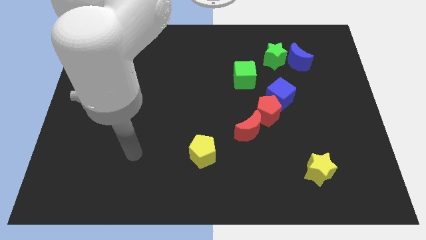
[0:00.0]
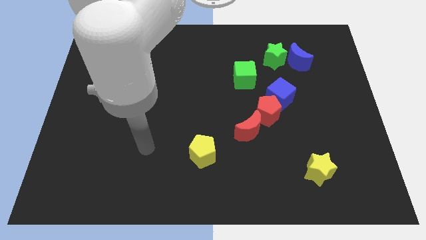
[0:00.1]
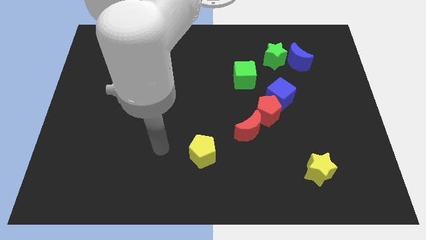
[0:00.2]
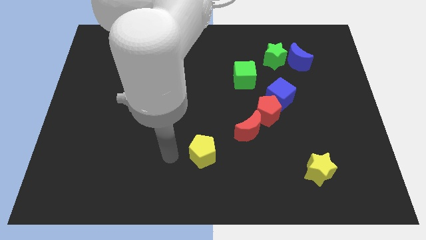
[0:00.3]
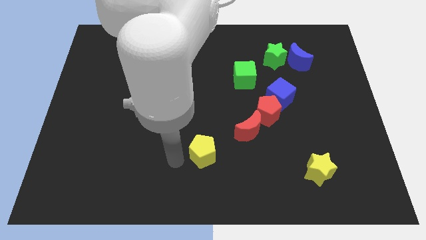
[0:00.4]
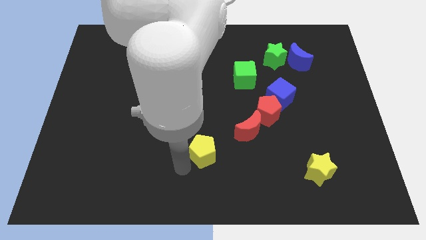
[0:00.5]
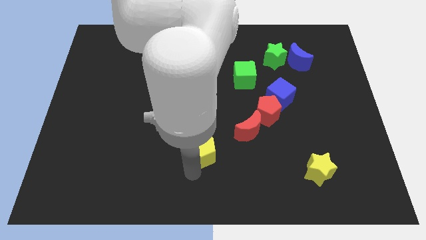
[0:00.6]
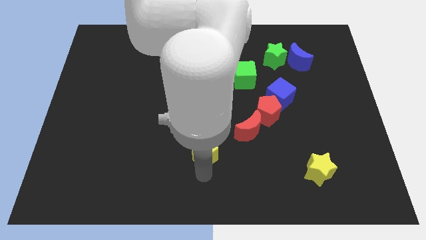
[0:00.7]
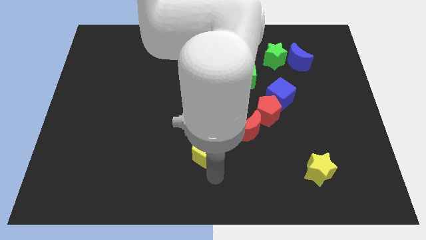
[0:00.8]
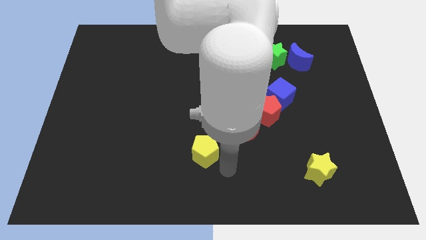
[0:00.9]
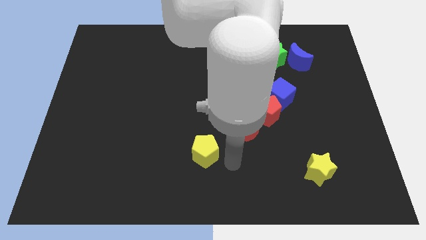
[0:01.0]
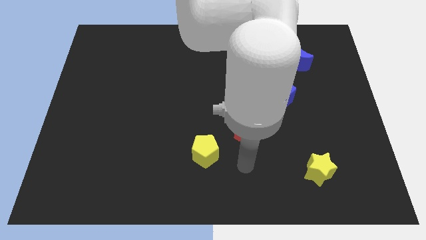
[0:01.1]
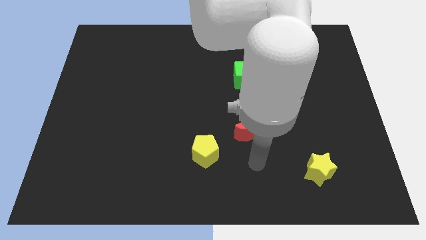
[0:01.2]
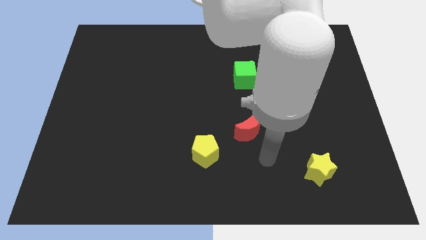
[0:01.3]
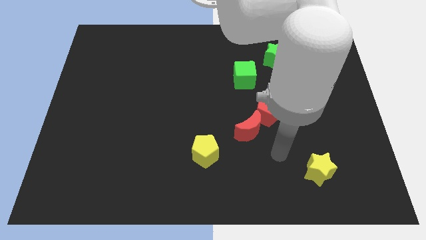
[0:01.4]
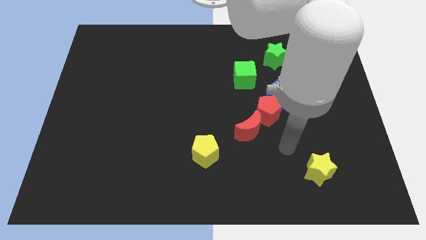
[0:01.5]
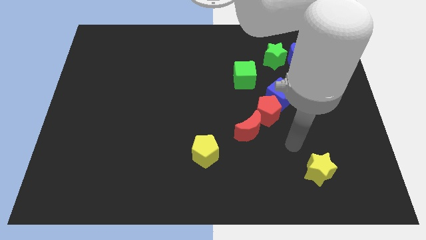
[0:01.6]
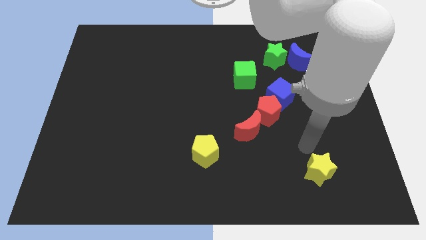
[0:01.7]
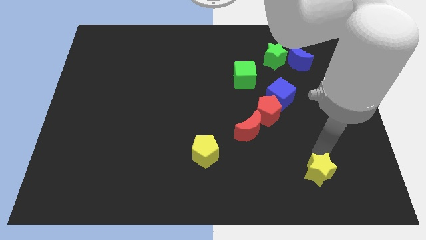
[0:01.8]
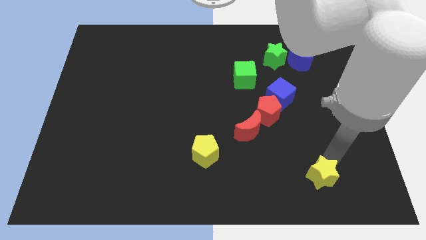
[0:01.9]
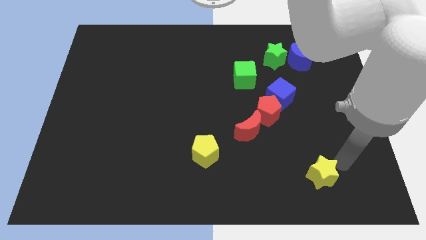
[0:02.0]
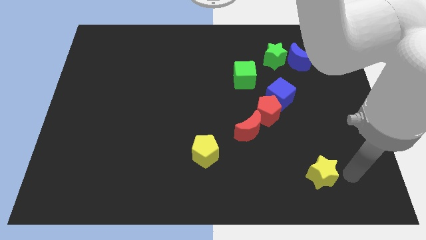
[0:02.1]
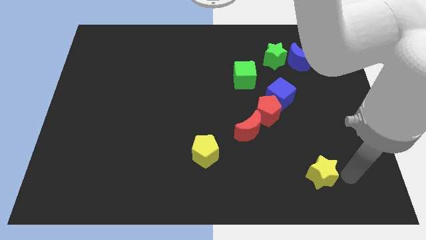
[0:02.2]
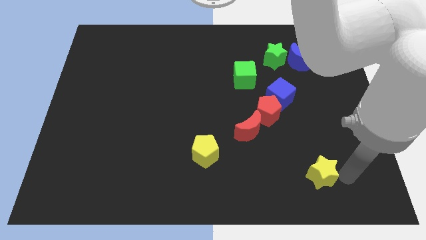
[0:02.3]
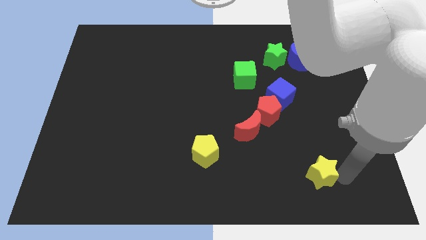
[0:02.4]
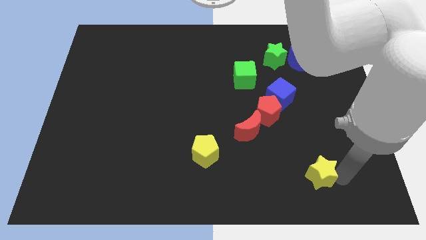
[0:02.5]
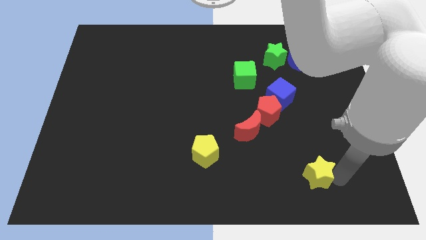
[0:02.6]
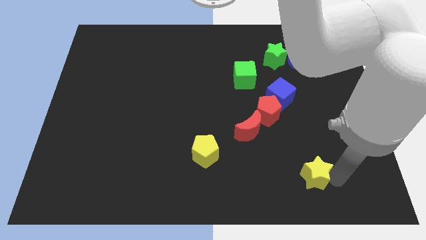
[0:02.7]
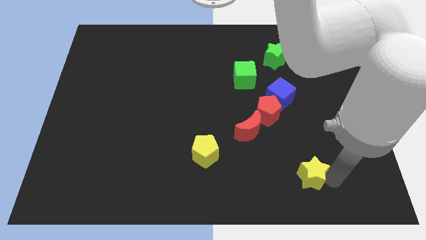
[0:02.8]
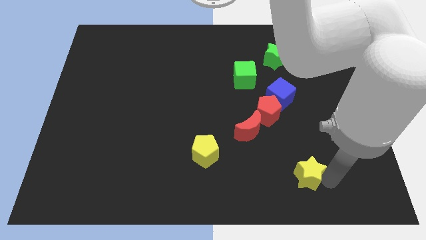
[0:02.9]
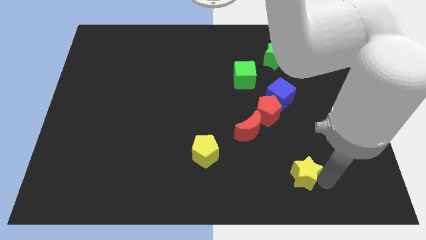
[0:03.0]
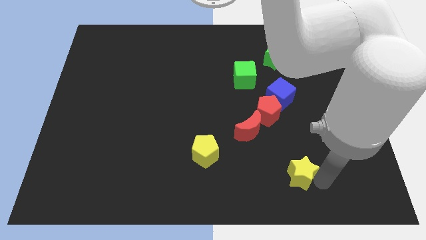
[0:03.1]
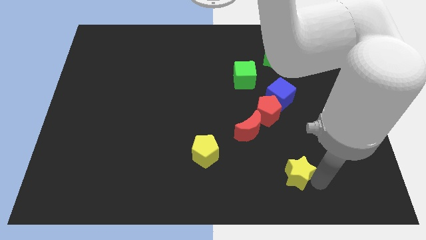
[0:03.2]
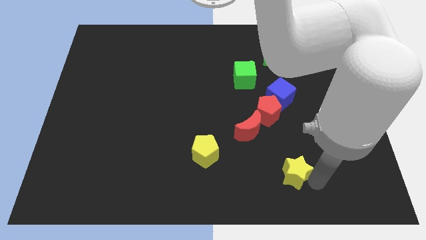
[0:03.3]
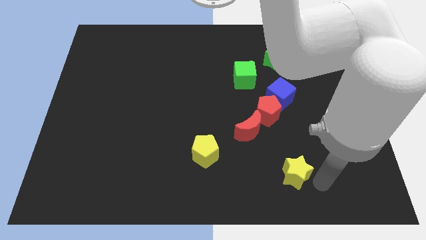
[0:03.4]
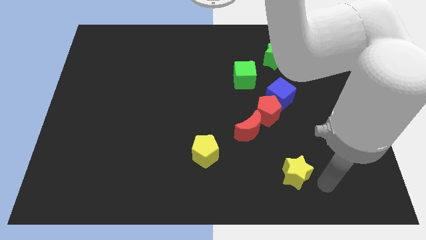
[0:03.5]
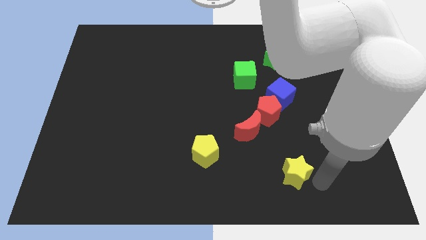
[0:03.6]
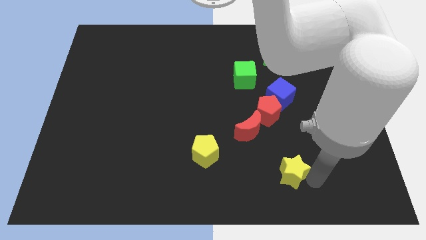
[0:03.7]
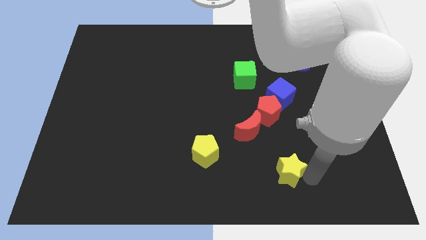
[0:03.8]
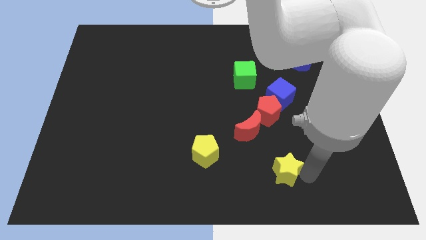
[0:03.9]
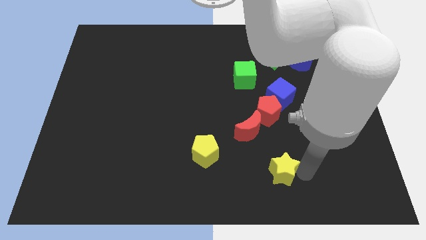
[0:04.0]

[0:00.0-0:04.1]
slide the yellow star a bit to the left

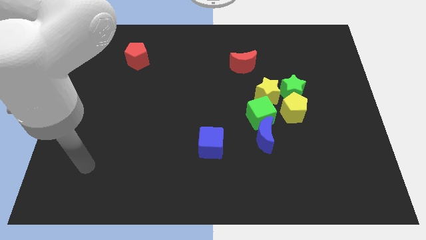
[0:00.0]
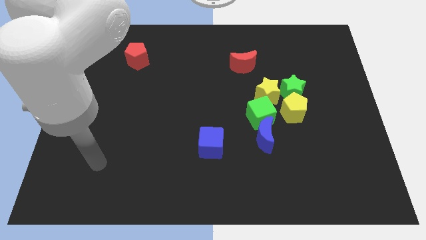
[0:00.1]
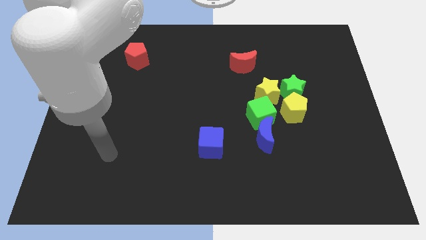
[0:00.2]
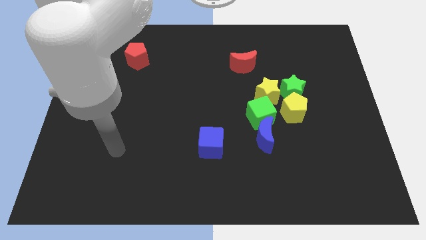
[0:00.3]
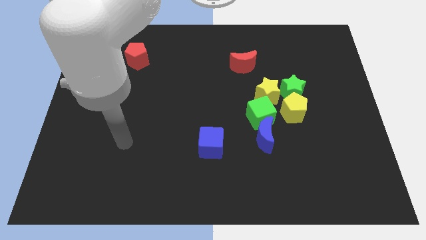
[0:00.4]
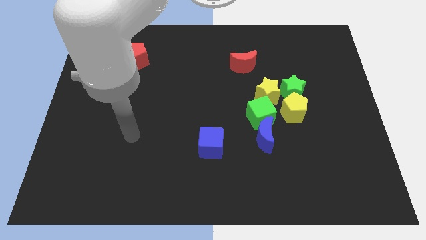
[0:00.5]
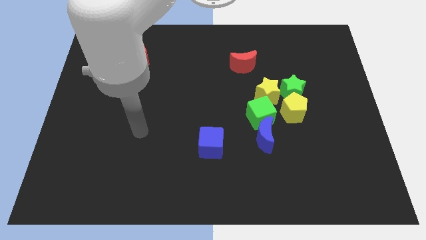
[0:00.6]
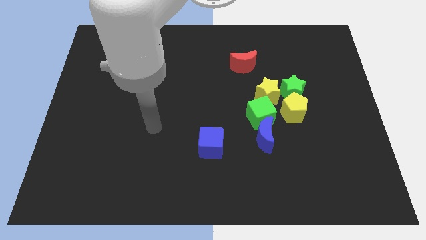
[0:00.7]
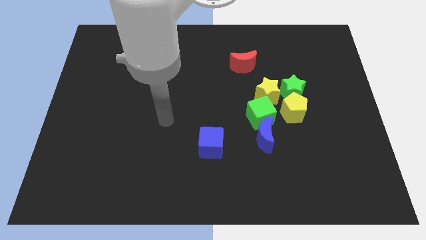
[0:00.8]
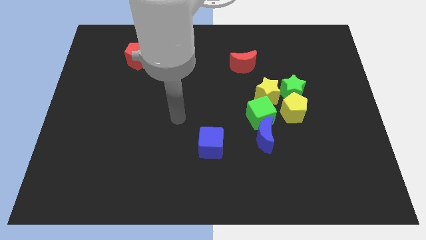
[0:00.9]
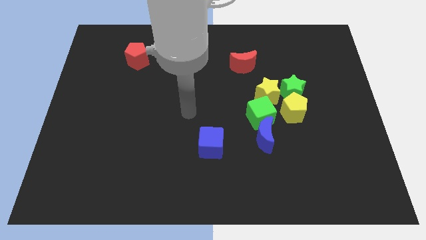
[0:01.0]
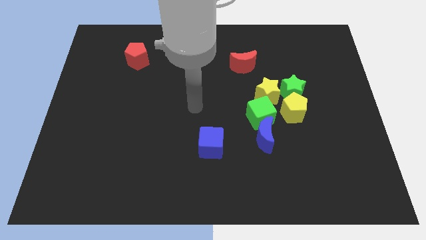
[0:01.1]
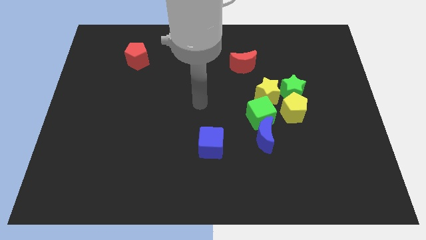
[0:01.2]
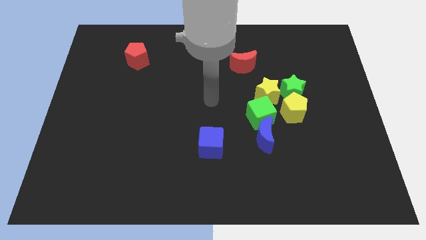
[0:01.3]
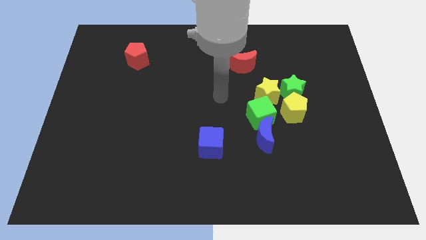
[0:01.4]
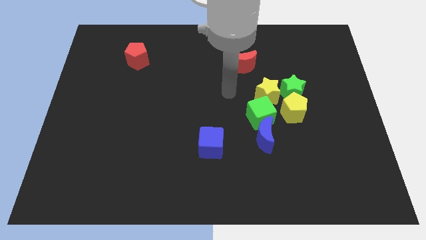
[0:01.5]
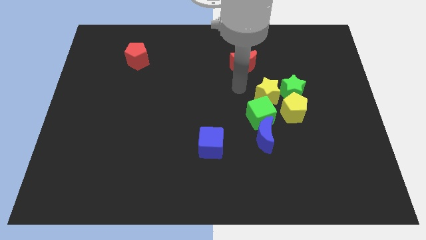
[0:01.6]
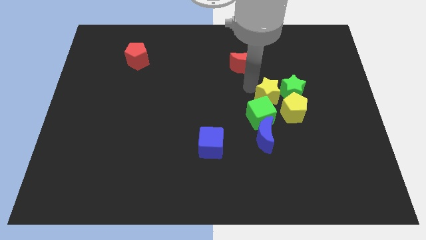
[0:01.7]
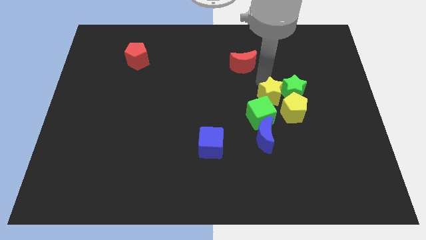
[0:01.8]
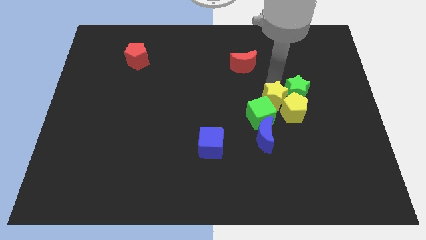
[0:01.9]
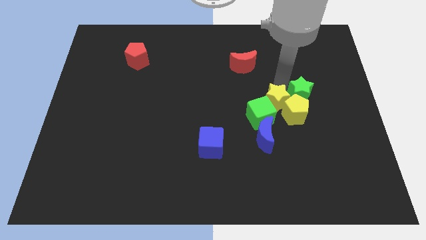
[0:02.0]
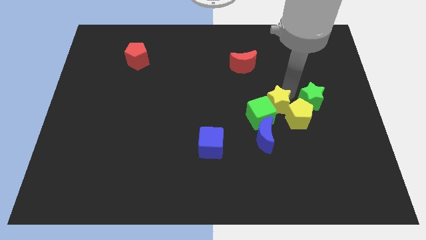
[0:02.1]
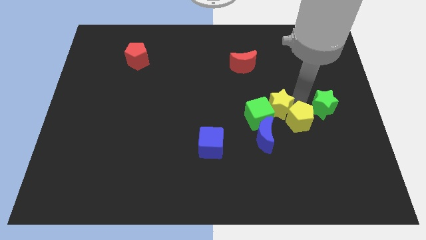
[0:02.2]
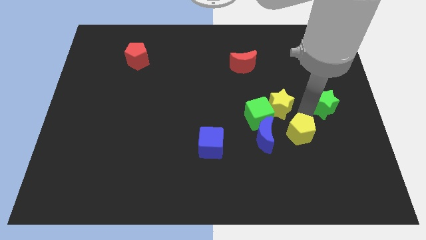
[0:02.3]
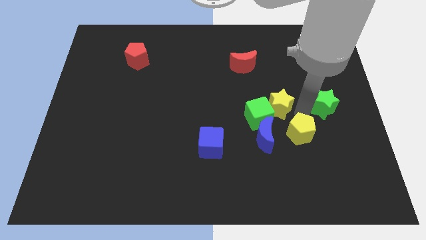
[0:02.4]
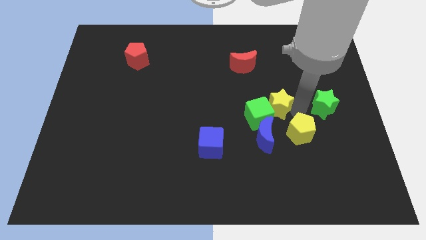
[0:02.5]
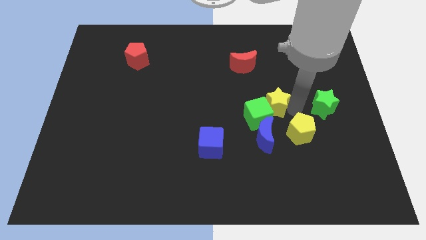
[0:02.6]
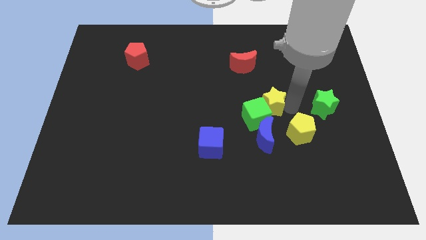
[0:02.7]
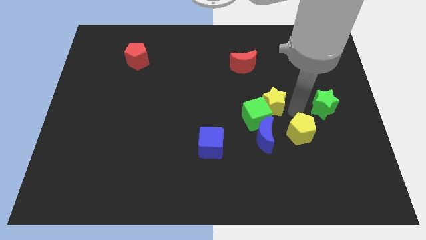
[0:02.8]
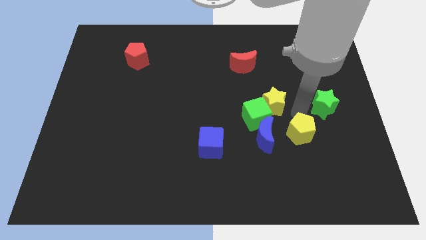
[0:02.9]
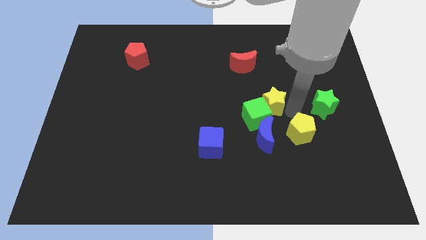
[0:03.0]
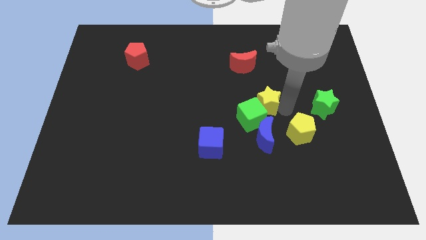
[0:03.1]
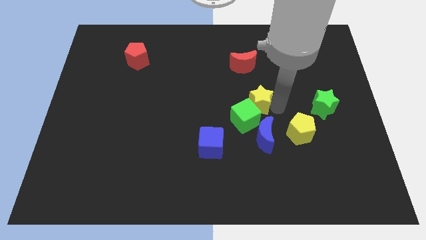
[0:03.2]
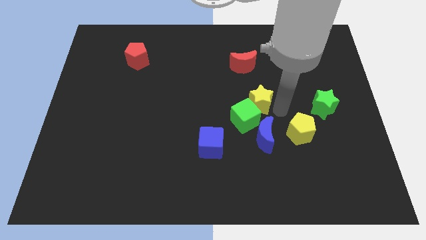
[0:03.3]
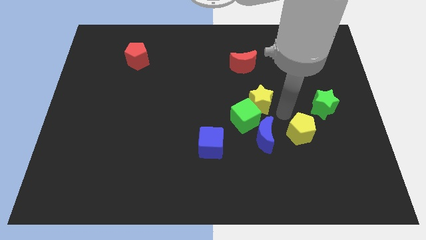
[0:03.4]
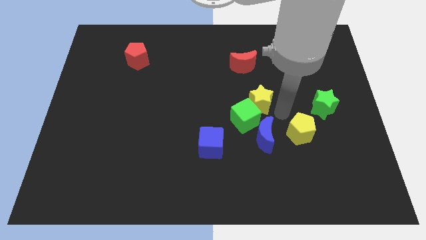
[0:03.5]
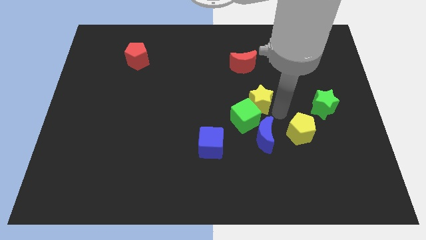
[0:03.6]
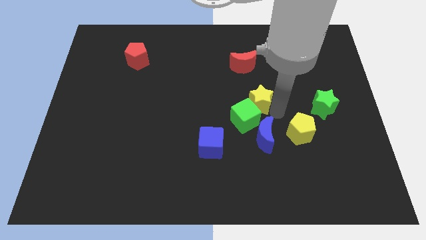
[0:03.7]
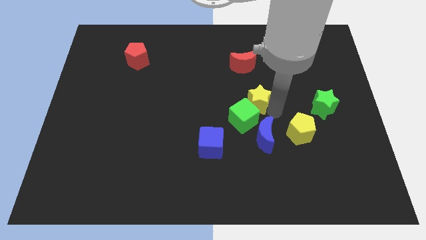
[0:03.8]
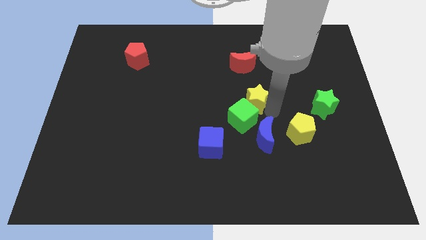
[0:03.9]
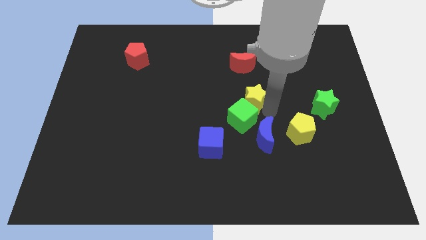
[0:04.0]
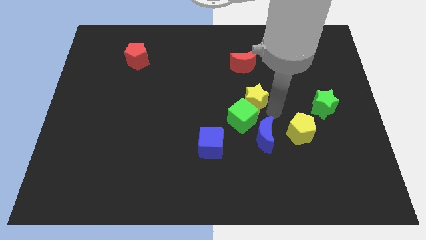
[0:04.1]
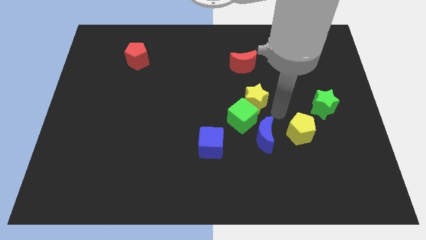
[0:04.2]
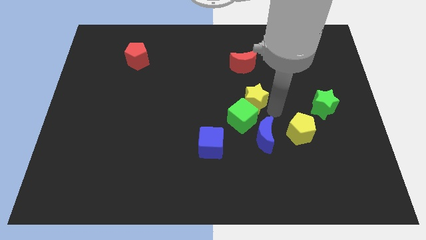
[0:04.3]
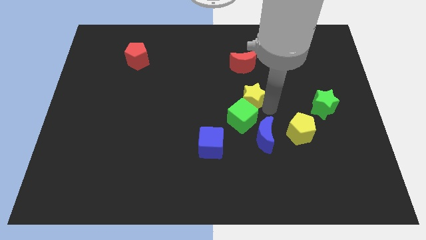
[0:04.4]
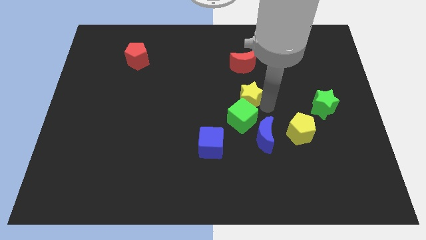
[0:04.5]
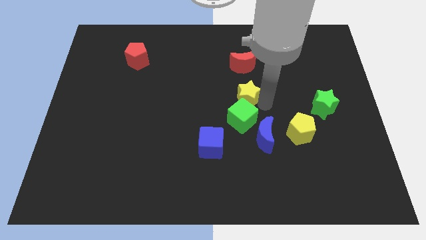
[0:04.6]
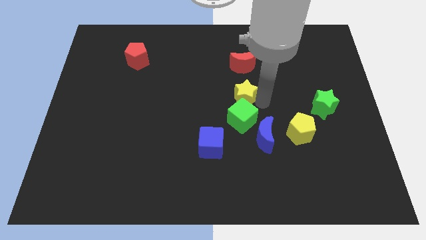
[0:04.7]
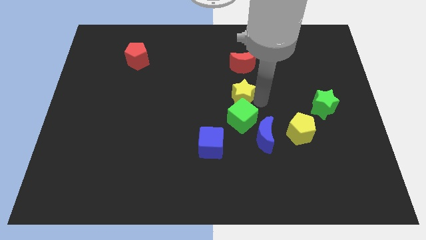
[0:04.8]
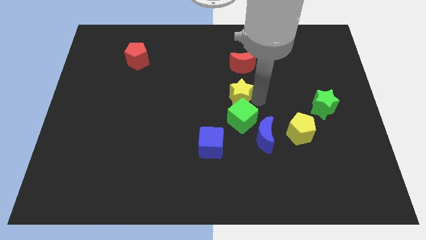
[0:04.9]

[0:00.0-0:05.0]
push the yellow star left somewhat
